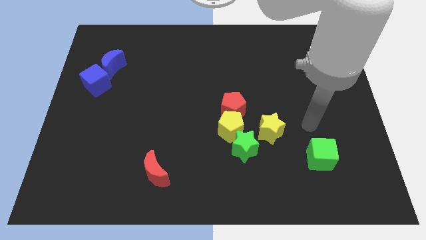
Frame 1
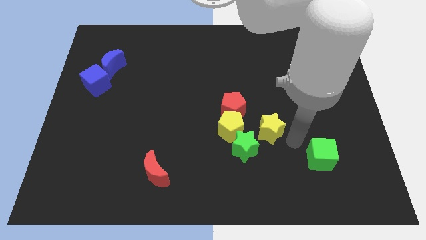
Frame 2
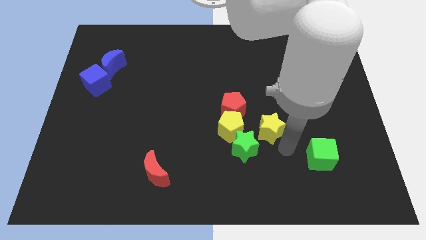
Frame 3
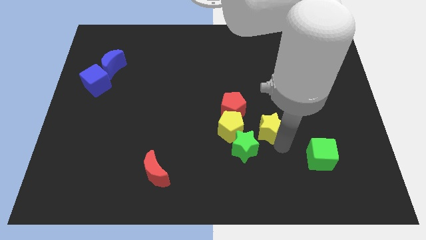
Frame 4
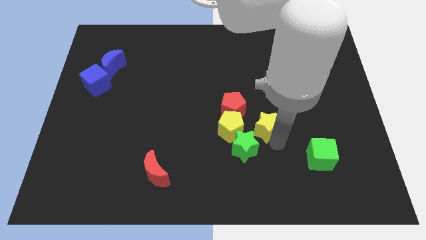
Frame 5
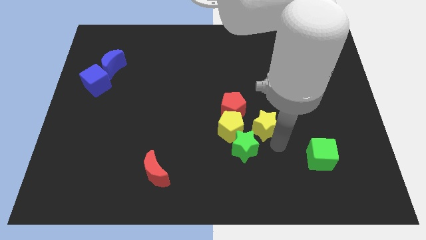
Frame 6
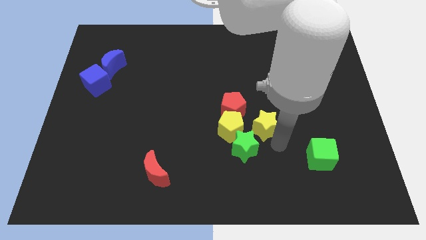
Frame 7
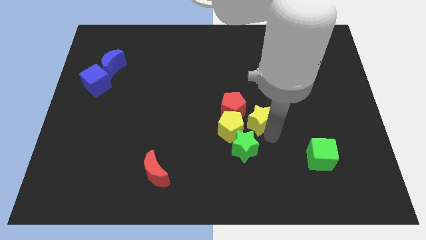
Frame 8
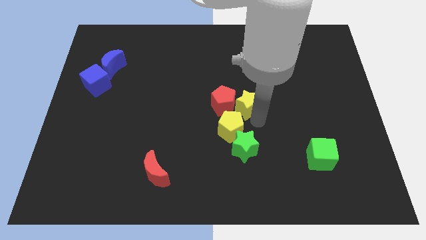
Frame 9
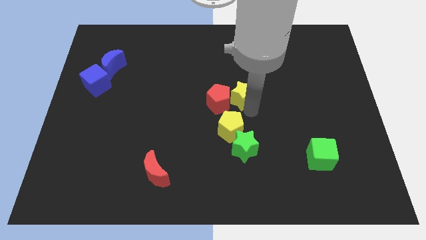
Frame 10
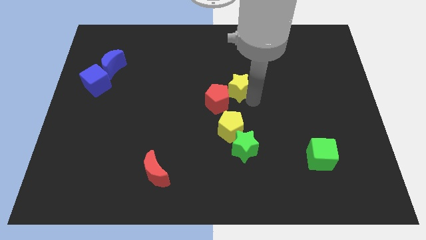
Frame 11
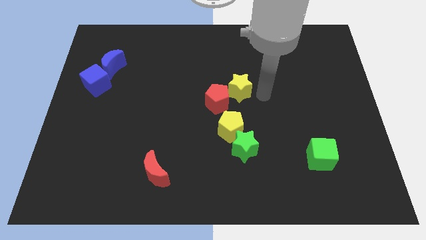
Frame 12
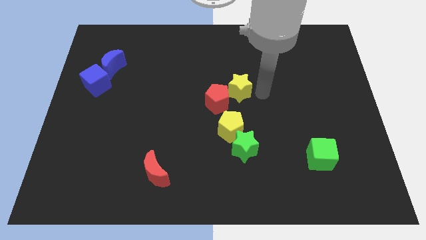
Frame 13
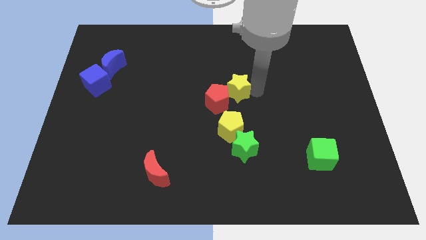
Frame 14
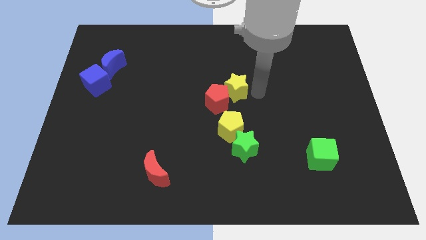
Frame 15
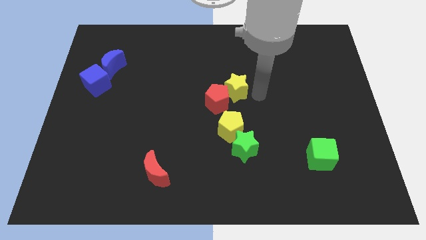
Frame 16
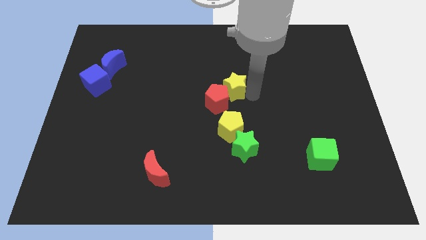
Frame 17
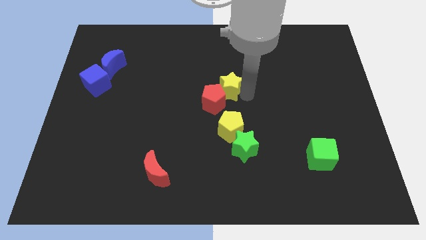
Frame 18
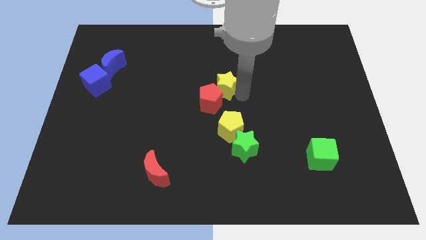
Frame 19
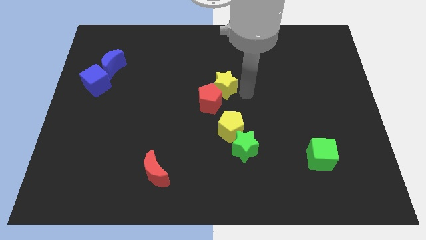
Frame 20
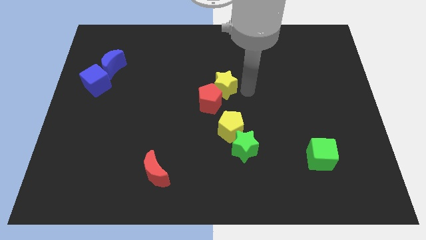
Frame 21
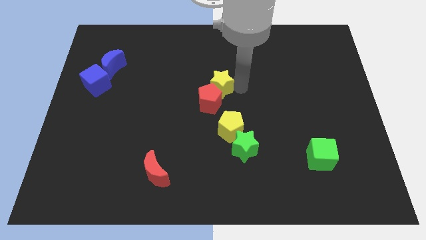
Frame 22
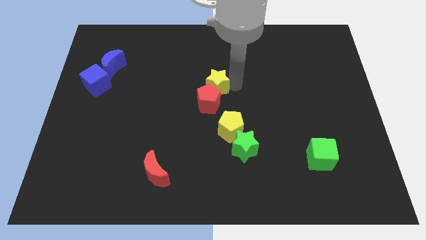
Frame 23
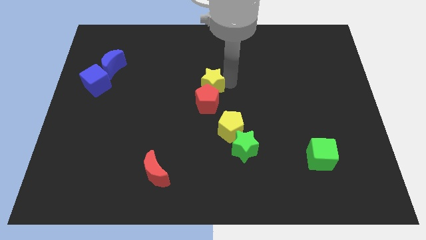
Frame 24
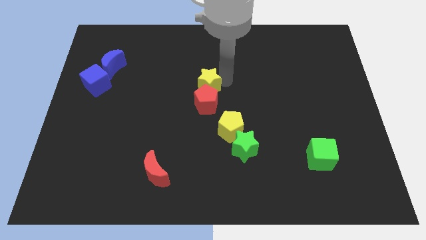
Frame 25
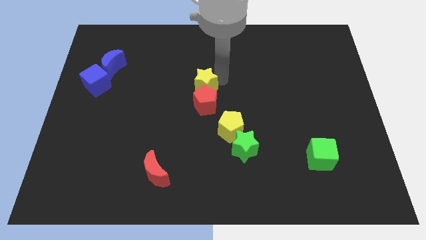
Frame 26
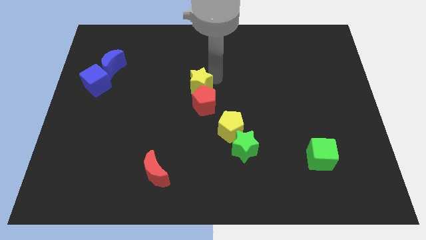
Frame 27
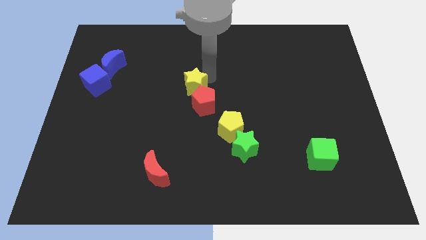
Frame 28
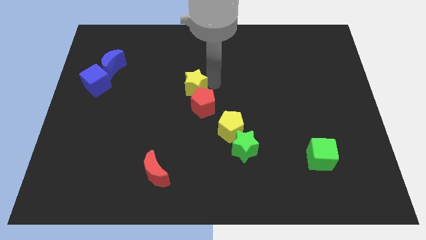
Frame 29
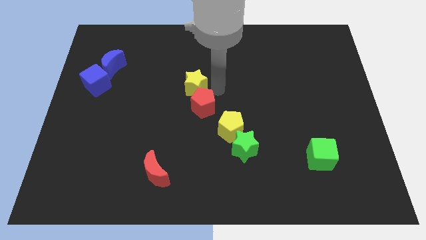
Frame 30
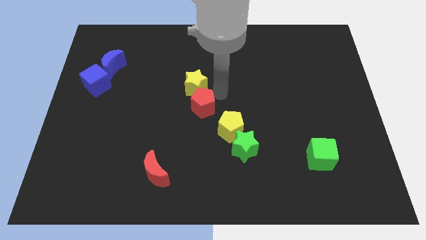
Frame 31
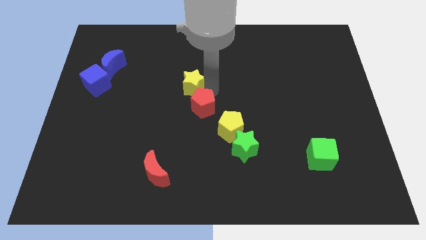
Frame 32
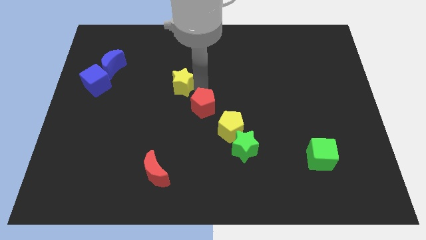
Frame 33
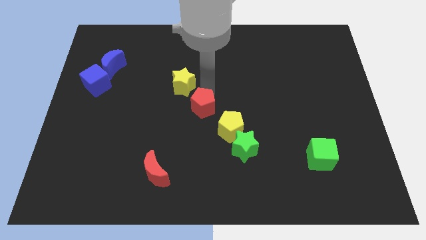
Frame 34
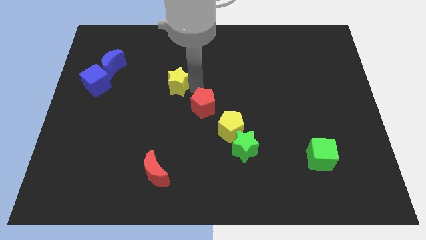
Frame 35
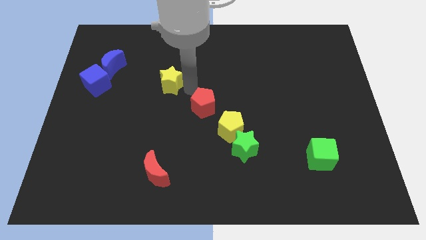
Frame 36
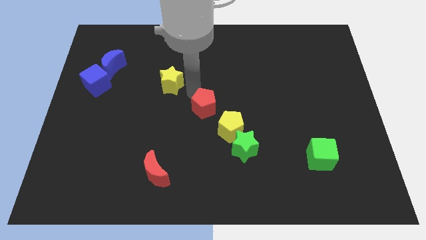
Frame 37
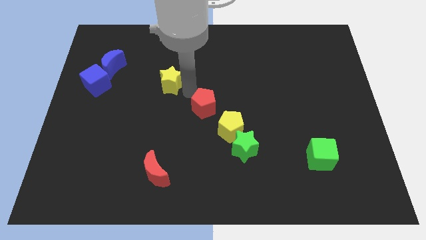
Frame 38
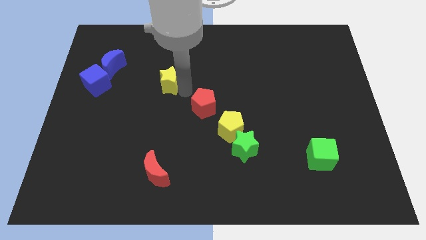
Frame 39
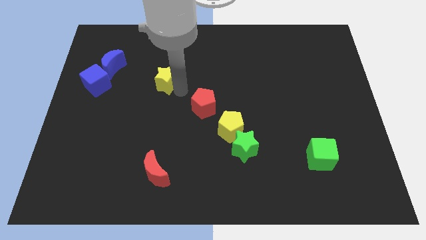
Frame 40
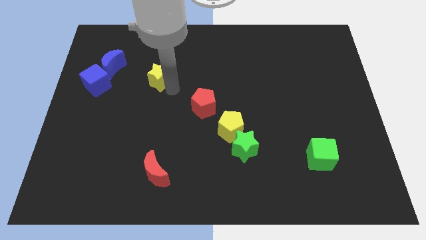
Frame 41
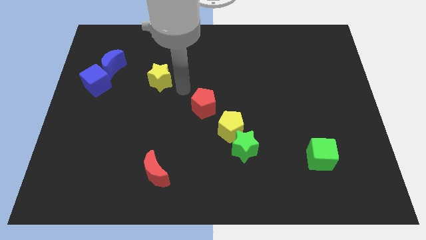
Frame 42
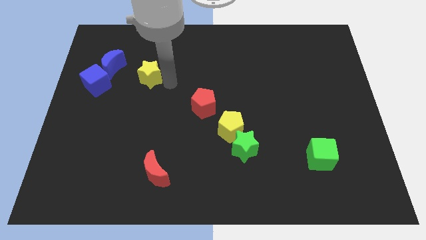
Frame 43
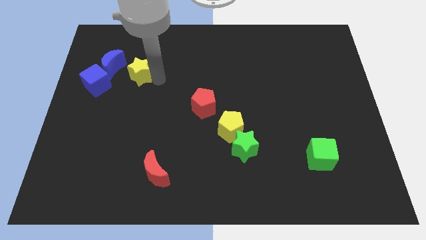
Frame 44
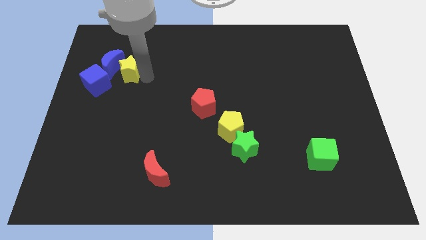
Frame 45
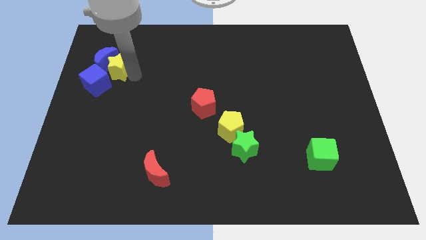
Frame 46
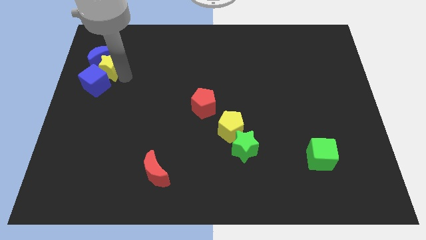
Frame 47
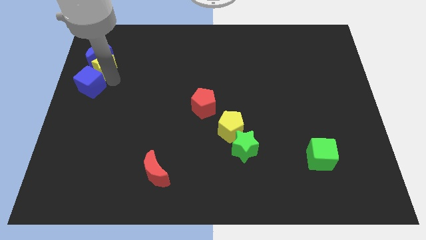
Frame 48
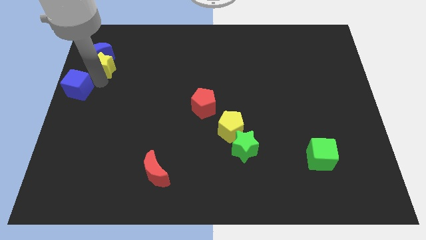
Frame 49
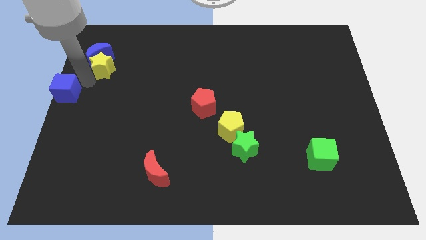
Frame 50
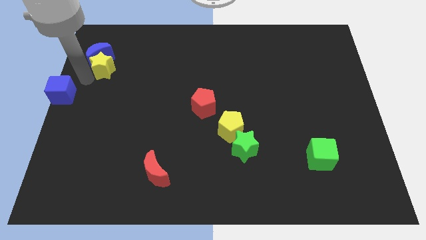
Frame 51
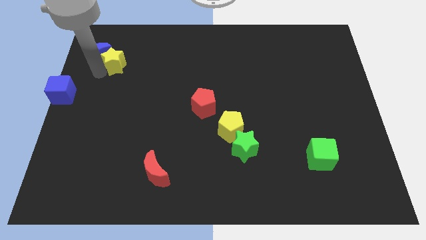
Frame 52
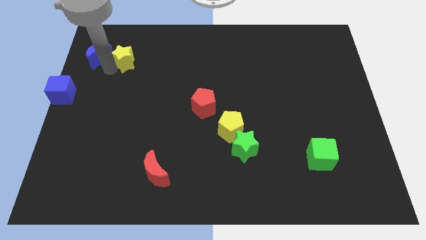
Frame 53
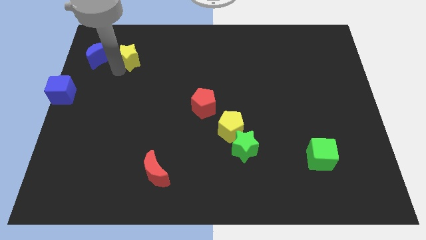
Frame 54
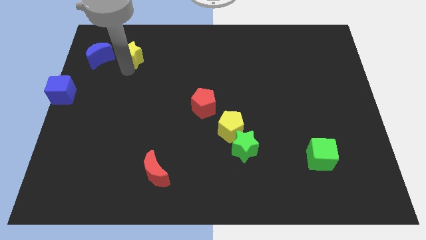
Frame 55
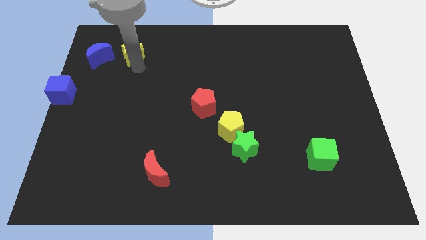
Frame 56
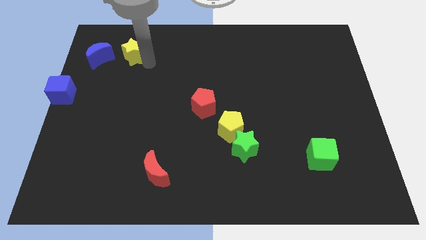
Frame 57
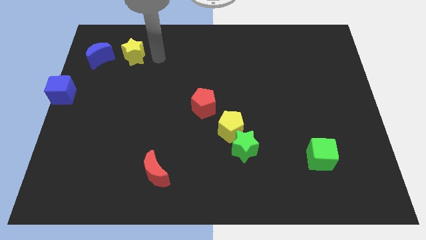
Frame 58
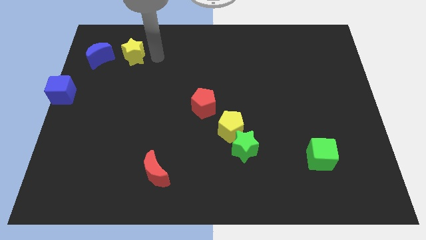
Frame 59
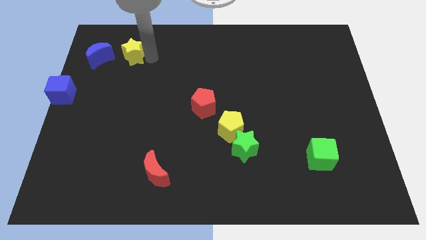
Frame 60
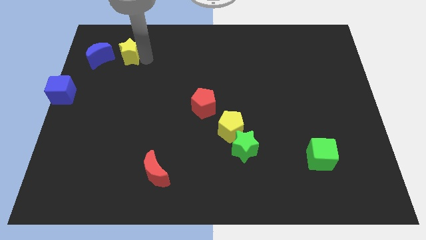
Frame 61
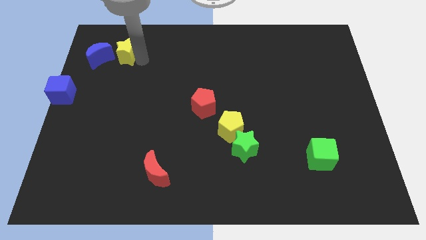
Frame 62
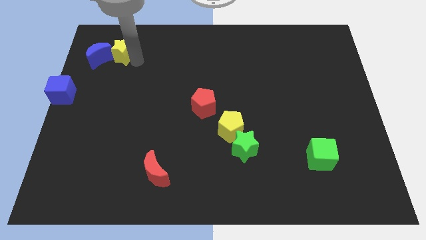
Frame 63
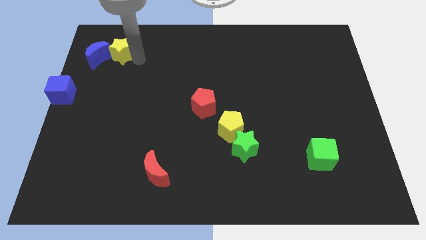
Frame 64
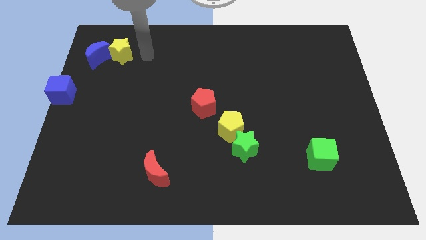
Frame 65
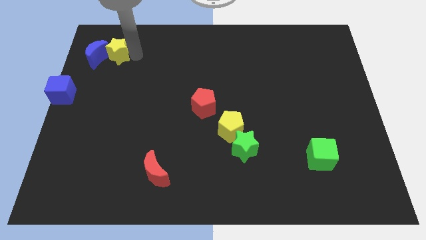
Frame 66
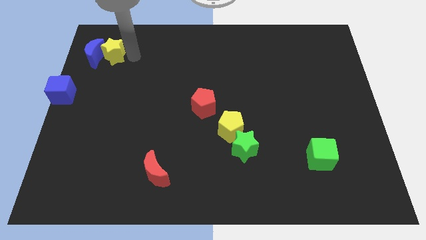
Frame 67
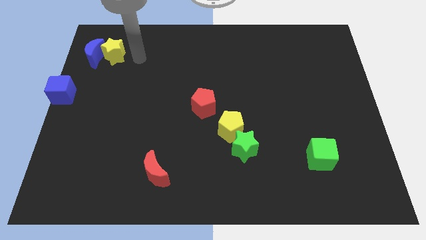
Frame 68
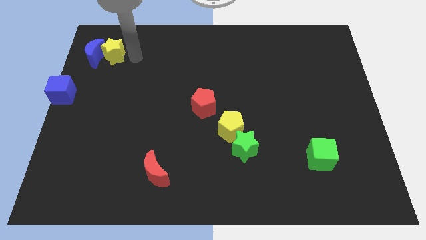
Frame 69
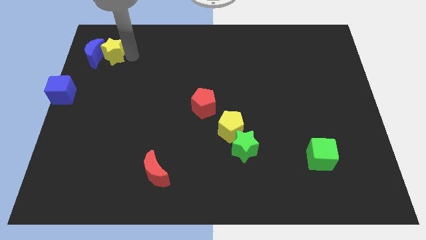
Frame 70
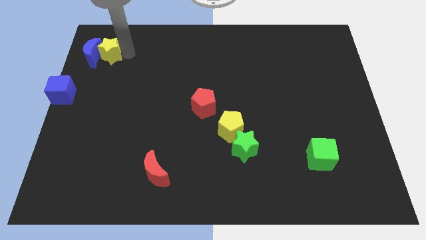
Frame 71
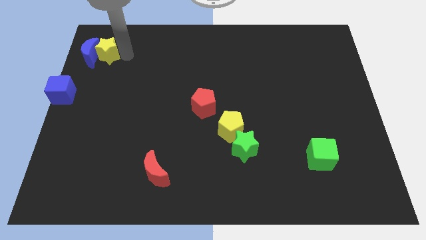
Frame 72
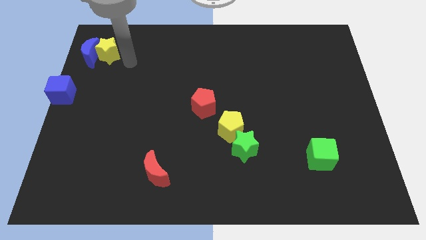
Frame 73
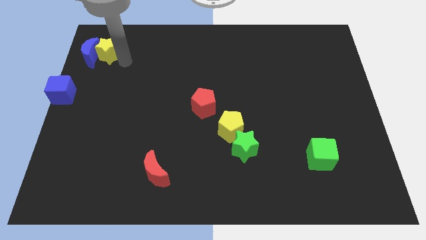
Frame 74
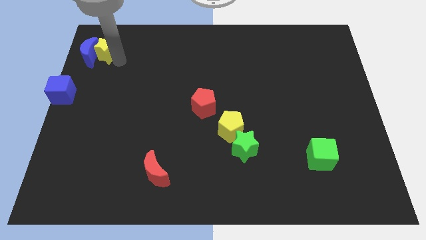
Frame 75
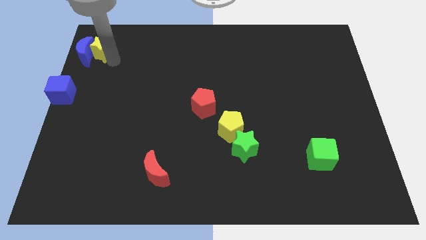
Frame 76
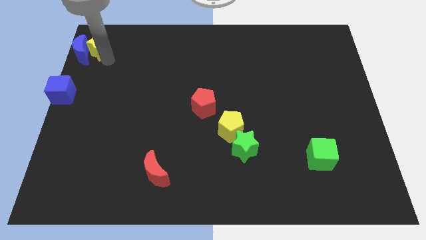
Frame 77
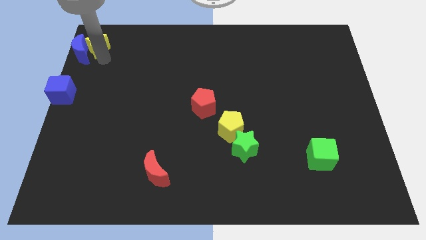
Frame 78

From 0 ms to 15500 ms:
slide the yellow star to the top left of the board
